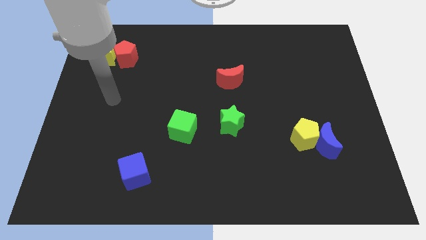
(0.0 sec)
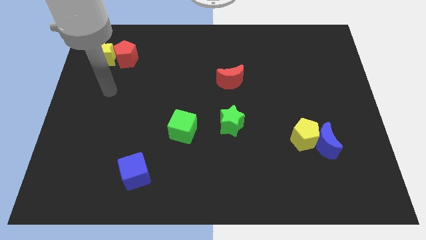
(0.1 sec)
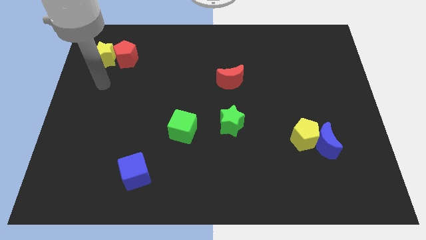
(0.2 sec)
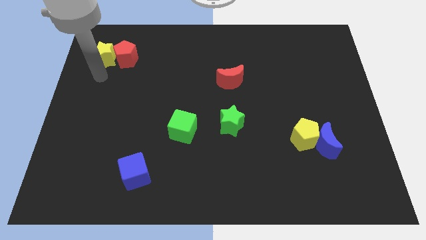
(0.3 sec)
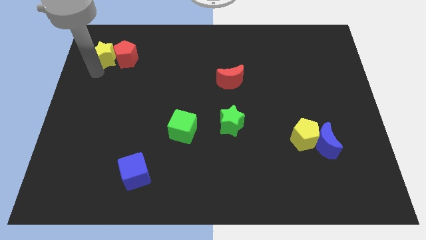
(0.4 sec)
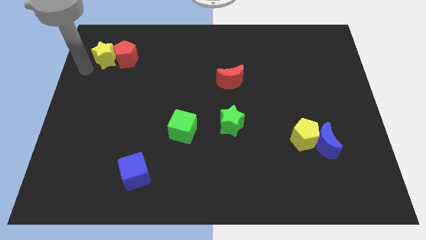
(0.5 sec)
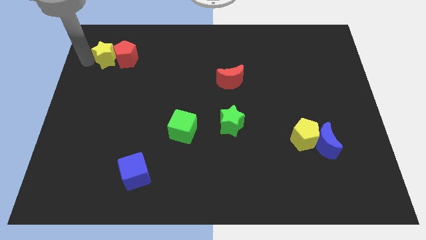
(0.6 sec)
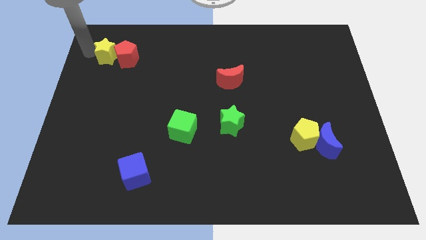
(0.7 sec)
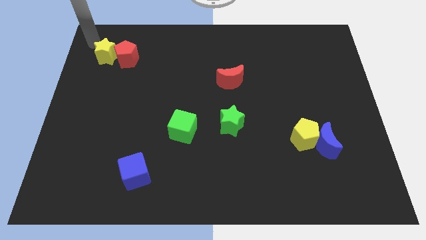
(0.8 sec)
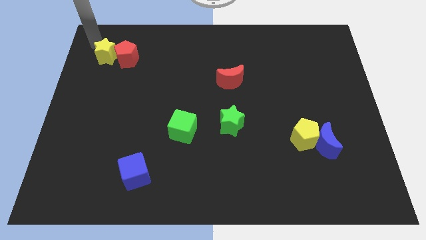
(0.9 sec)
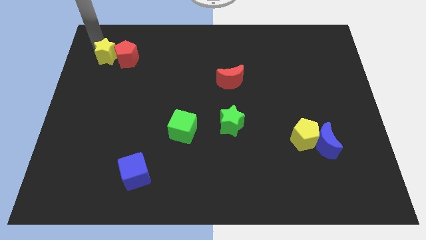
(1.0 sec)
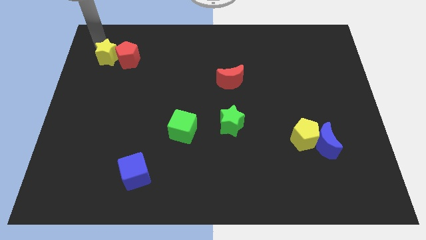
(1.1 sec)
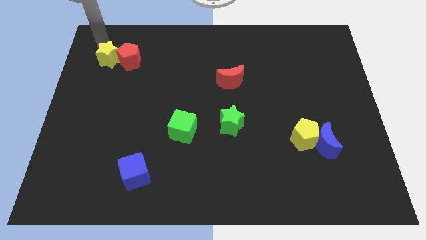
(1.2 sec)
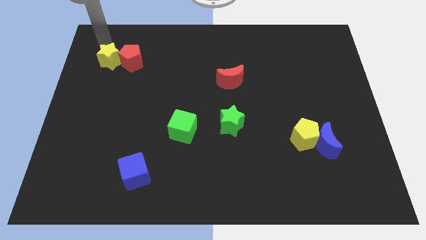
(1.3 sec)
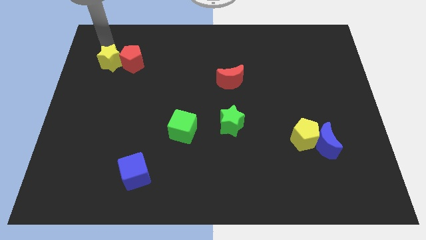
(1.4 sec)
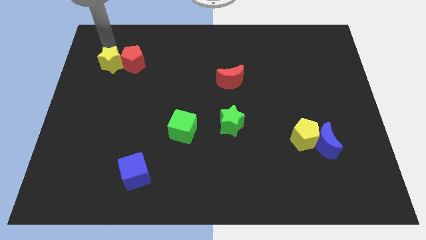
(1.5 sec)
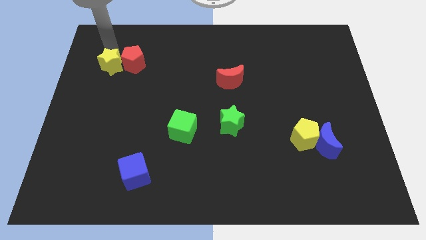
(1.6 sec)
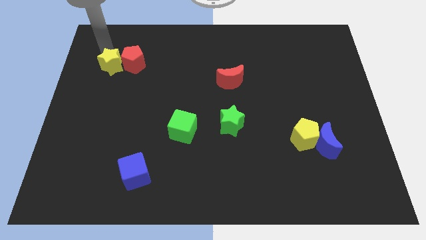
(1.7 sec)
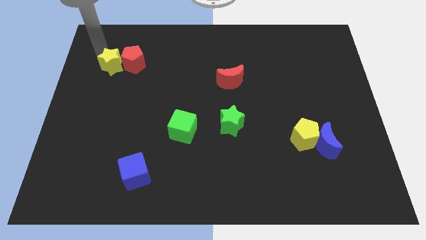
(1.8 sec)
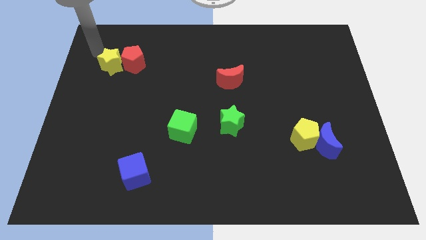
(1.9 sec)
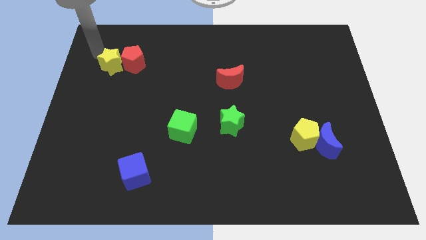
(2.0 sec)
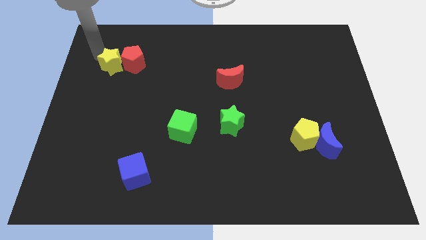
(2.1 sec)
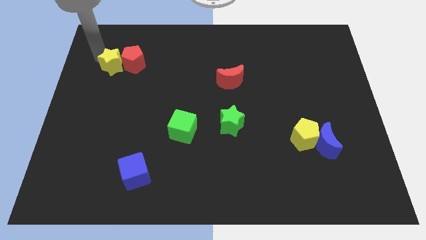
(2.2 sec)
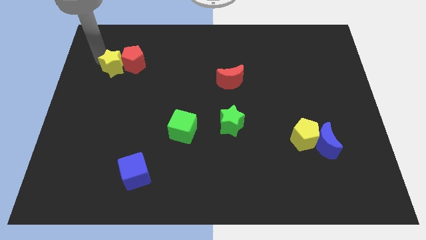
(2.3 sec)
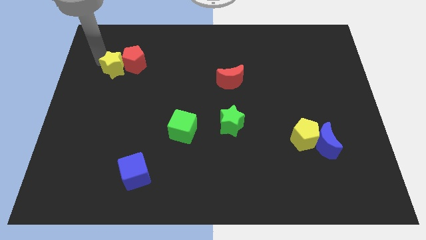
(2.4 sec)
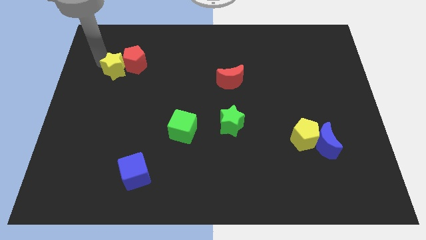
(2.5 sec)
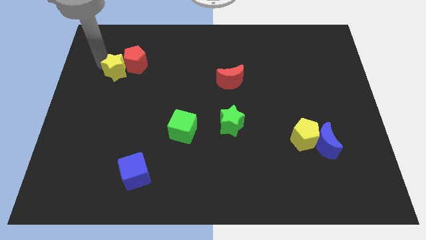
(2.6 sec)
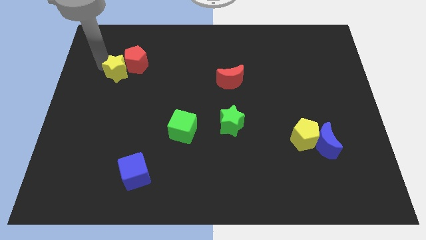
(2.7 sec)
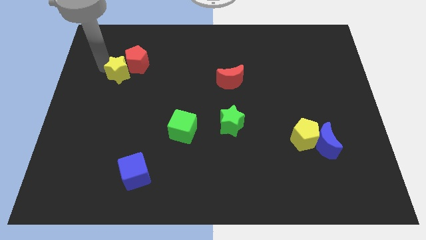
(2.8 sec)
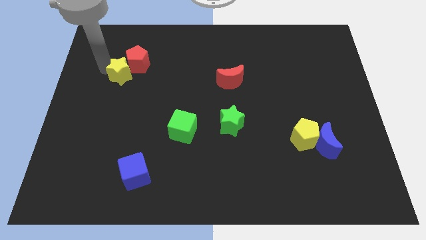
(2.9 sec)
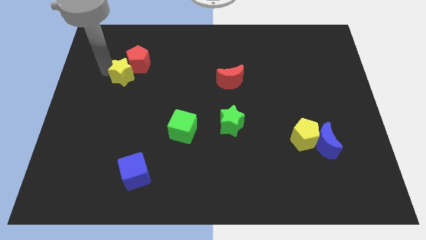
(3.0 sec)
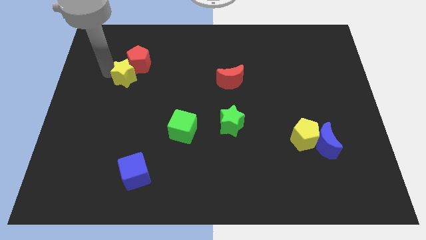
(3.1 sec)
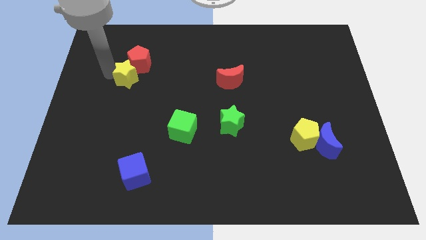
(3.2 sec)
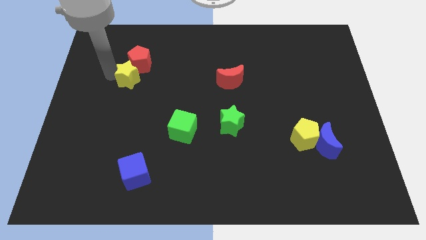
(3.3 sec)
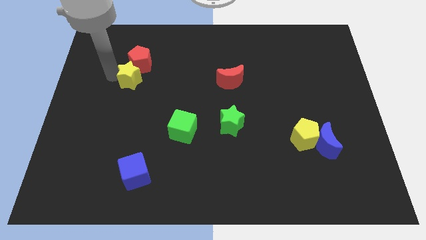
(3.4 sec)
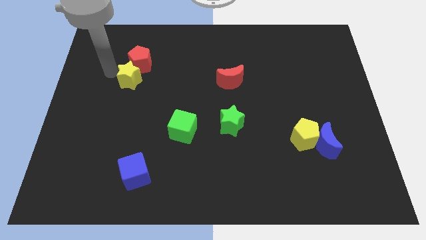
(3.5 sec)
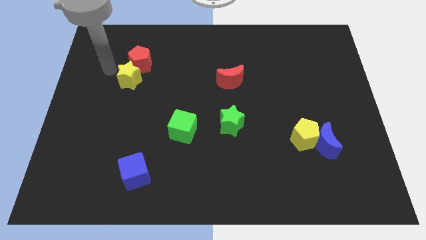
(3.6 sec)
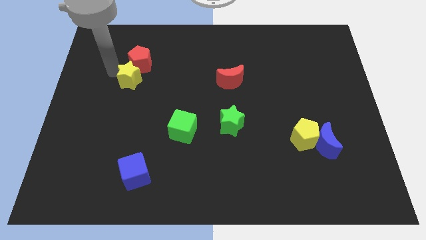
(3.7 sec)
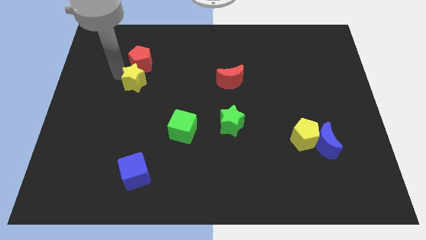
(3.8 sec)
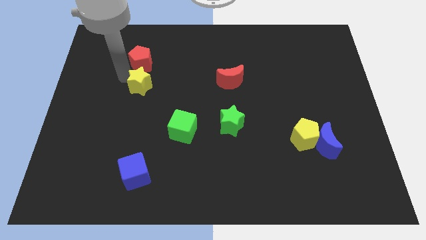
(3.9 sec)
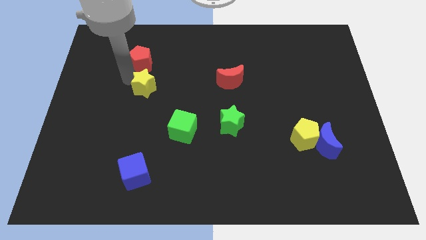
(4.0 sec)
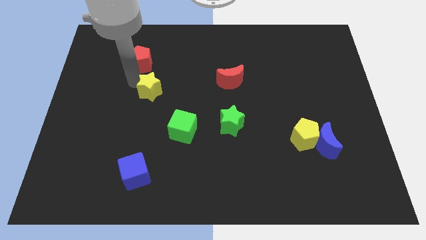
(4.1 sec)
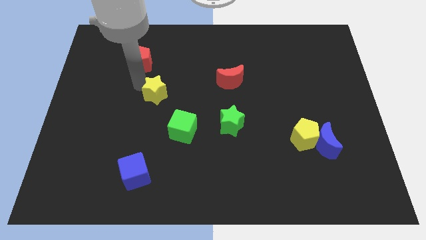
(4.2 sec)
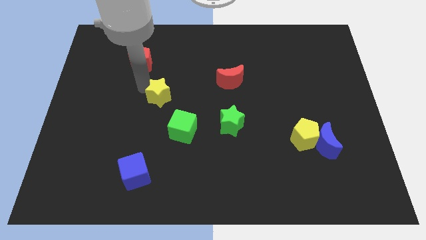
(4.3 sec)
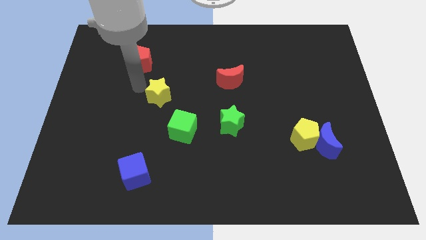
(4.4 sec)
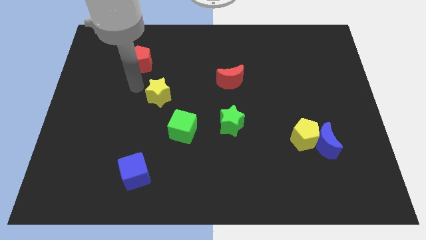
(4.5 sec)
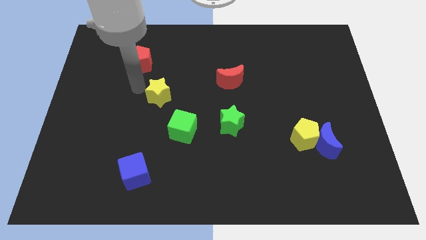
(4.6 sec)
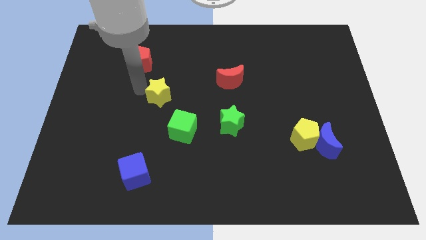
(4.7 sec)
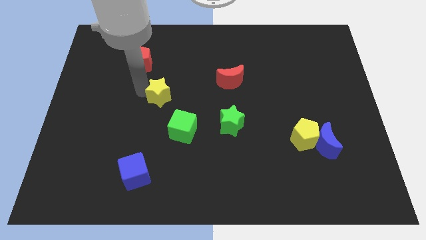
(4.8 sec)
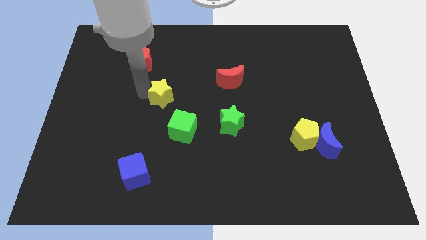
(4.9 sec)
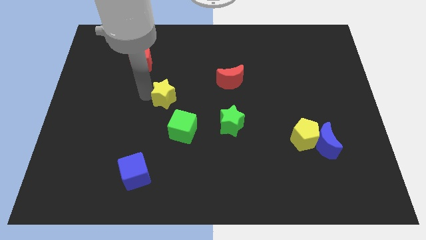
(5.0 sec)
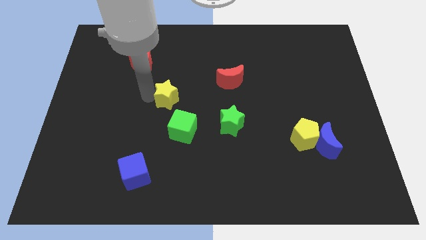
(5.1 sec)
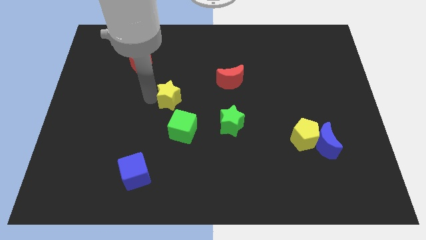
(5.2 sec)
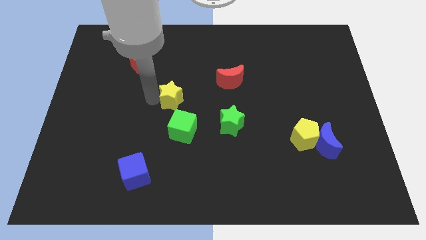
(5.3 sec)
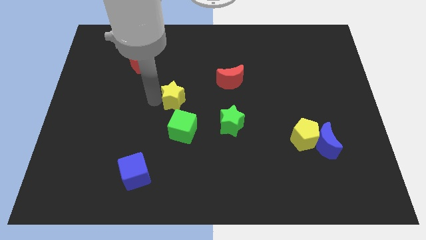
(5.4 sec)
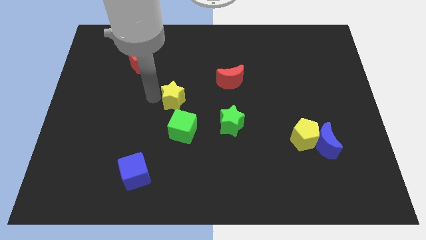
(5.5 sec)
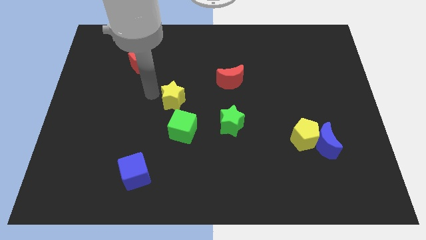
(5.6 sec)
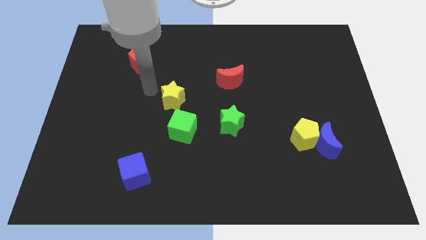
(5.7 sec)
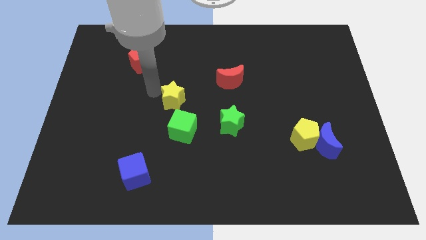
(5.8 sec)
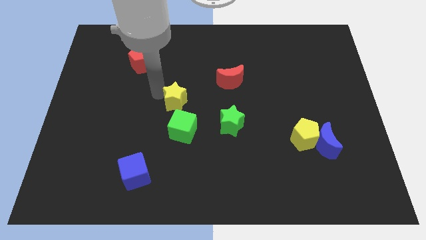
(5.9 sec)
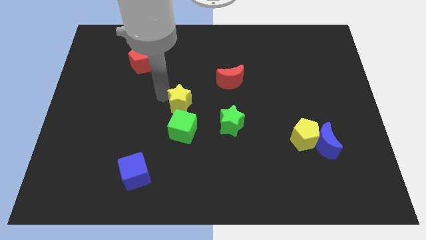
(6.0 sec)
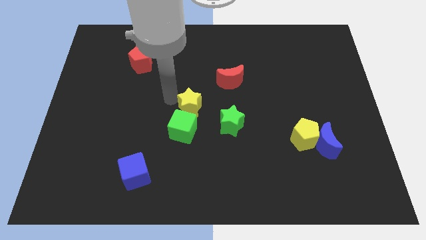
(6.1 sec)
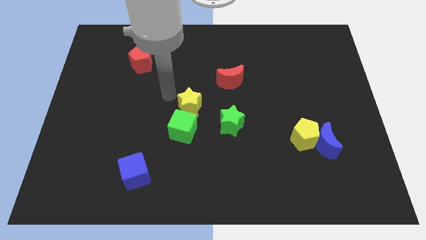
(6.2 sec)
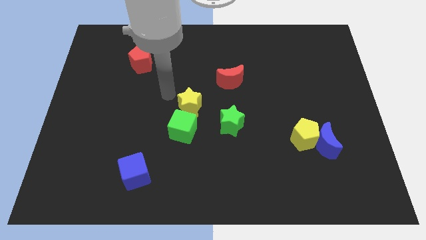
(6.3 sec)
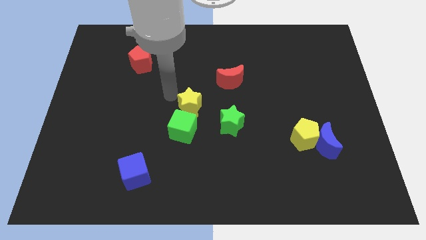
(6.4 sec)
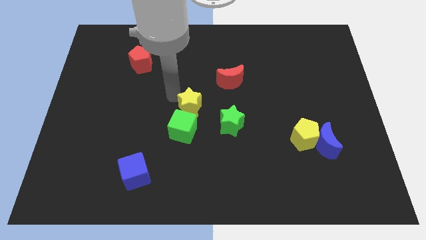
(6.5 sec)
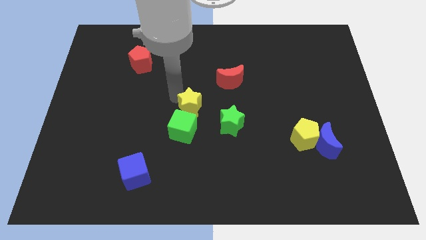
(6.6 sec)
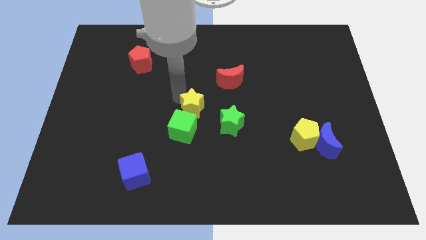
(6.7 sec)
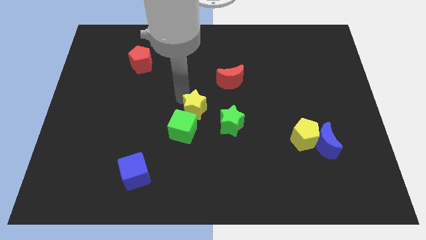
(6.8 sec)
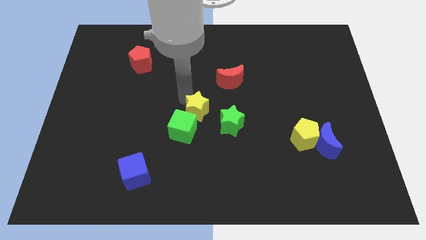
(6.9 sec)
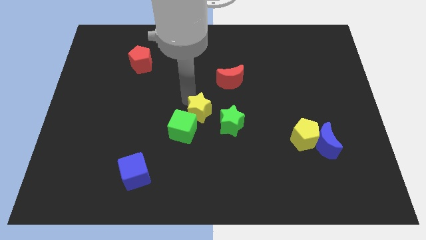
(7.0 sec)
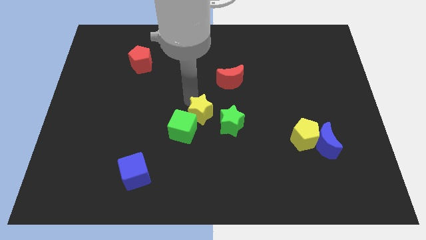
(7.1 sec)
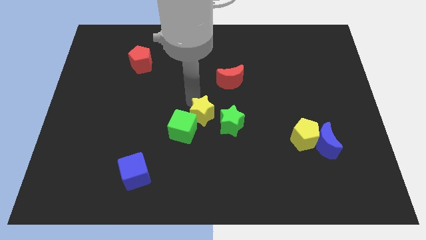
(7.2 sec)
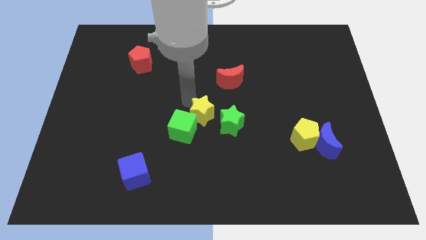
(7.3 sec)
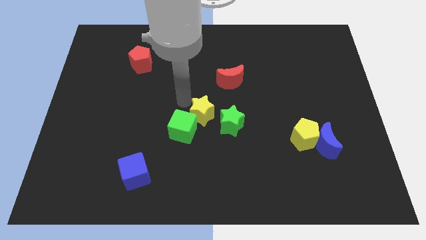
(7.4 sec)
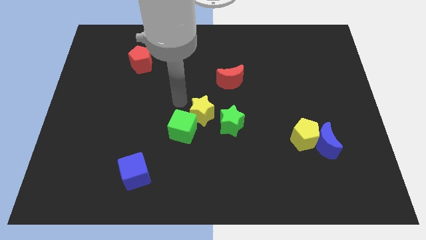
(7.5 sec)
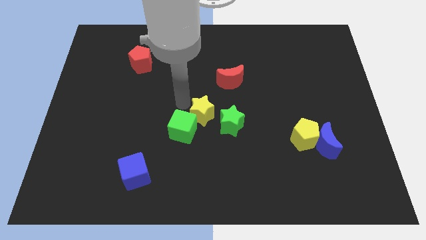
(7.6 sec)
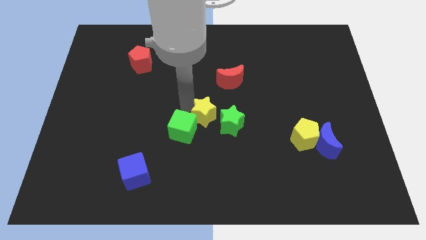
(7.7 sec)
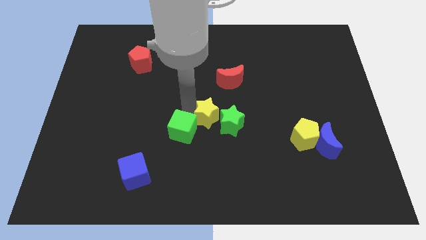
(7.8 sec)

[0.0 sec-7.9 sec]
move the yellow star next to the green star
